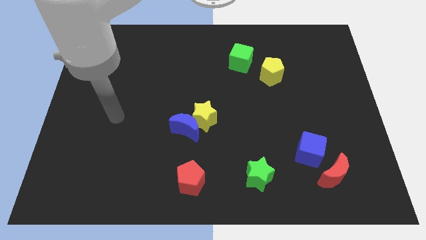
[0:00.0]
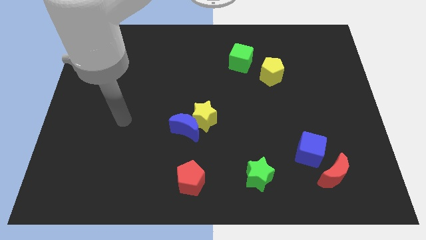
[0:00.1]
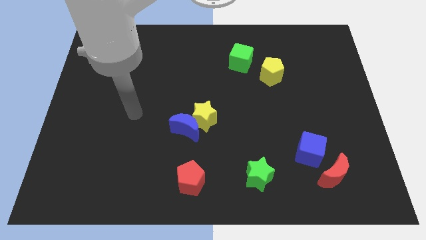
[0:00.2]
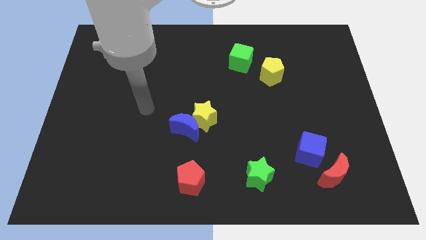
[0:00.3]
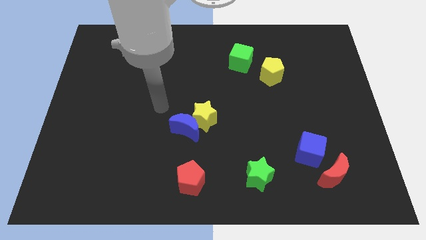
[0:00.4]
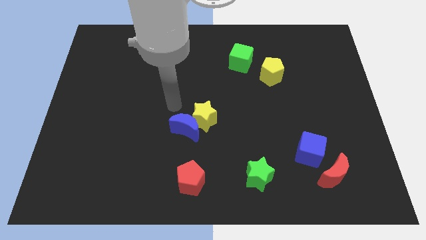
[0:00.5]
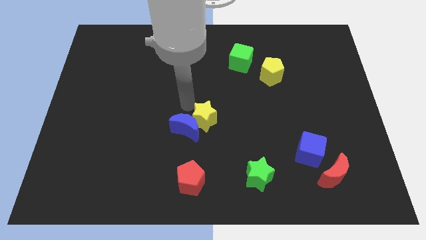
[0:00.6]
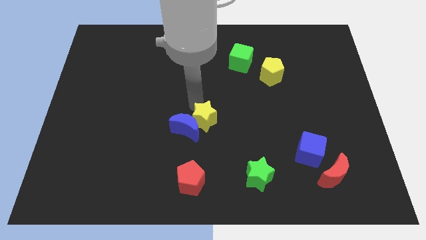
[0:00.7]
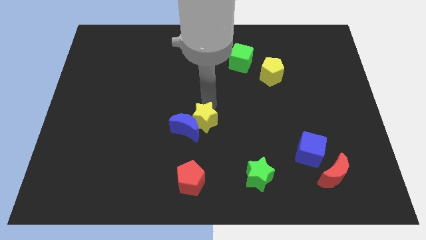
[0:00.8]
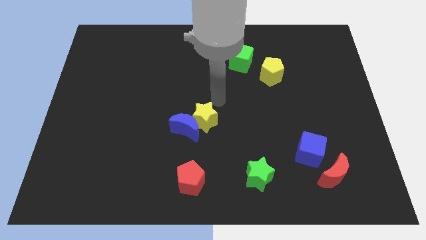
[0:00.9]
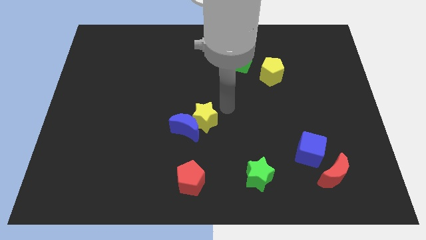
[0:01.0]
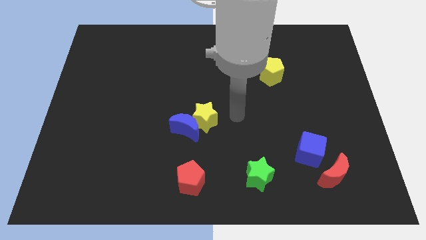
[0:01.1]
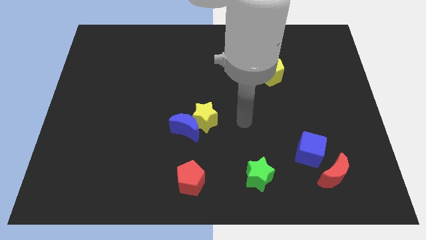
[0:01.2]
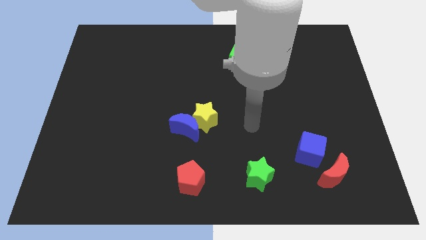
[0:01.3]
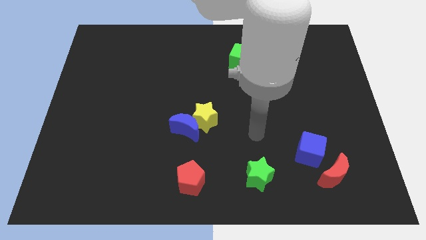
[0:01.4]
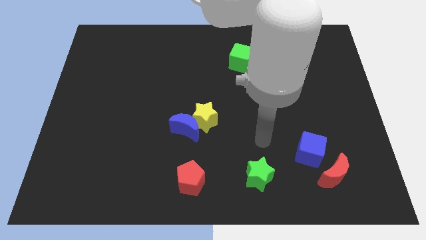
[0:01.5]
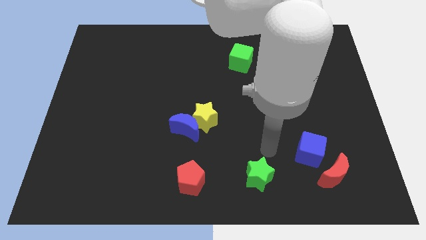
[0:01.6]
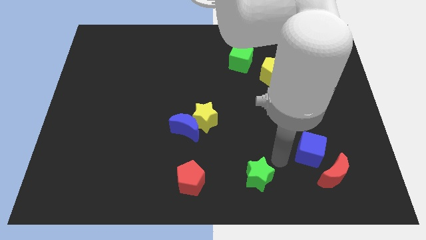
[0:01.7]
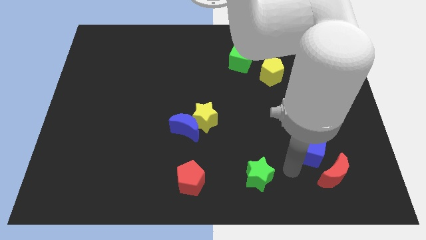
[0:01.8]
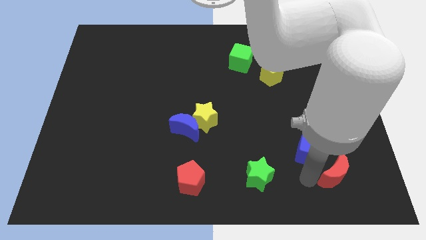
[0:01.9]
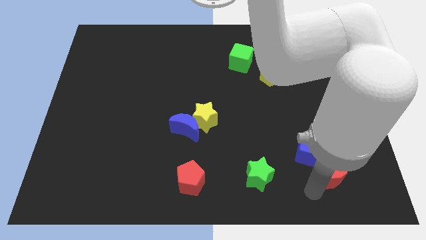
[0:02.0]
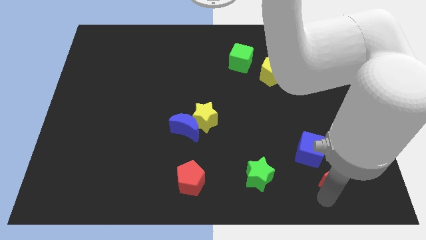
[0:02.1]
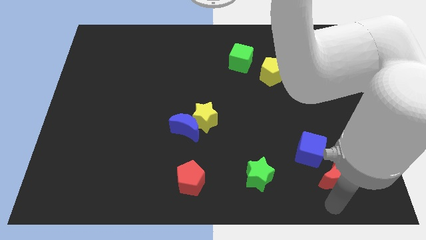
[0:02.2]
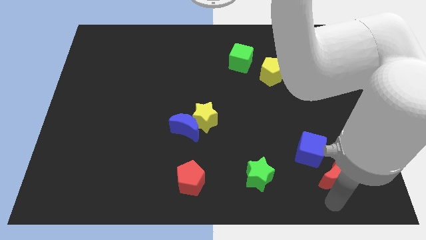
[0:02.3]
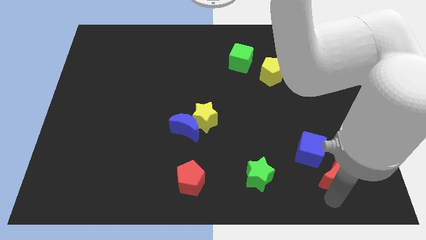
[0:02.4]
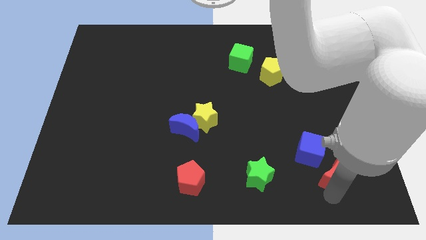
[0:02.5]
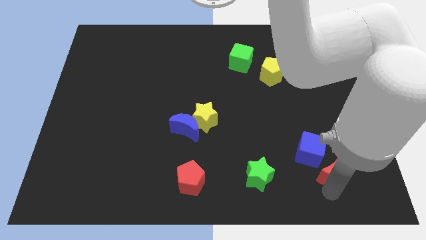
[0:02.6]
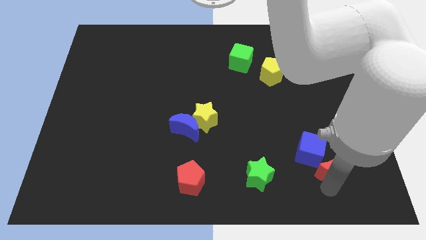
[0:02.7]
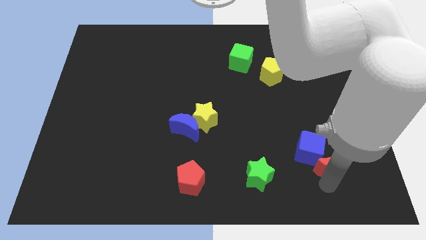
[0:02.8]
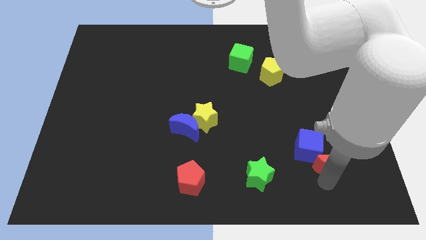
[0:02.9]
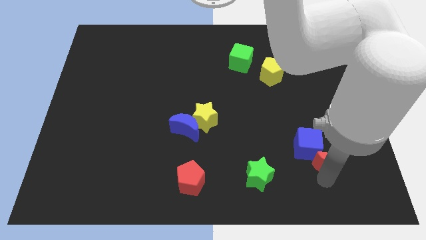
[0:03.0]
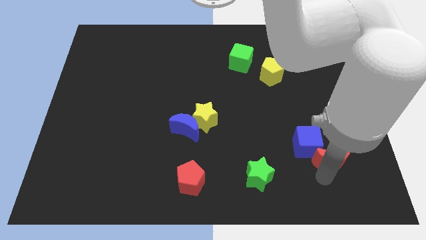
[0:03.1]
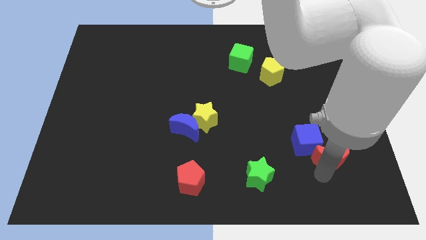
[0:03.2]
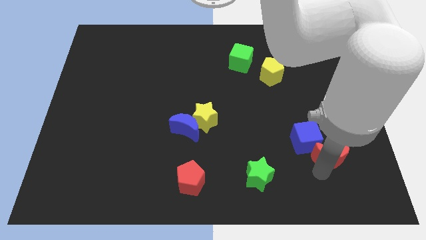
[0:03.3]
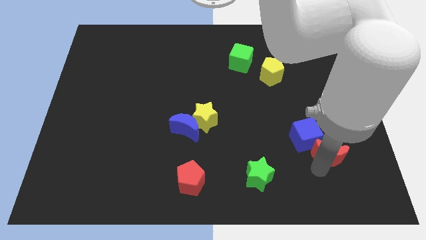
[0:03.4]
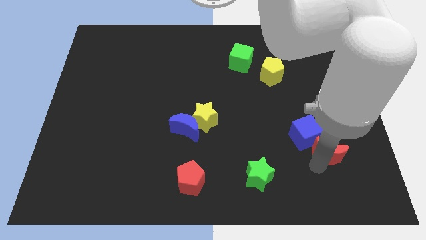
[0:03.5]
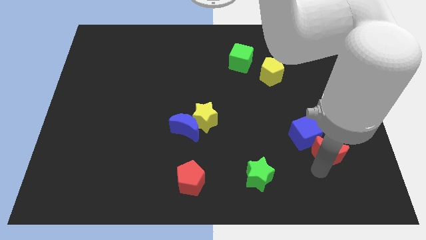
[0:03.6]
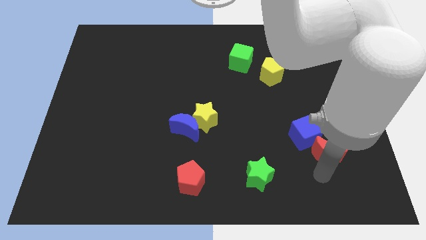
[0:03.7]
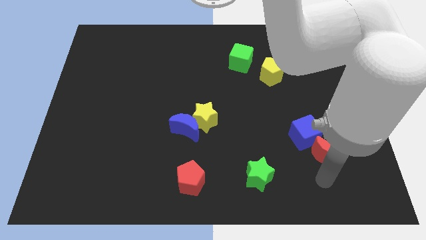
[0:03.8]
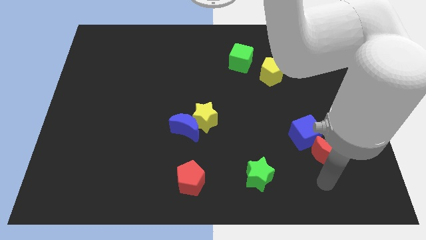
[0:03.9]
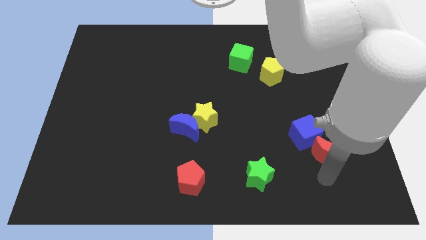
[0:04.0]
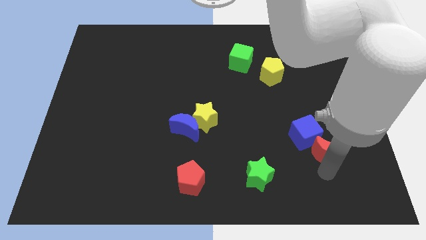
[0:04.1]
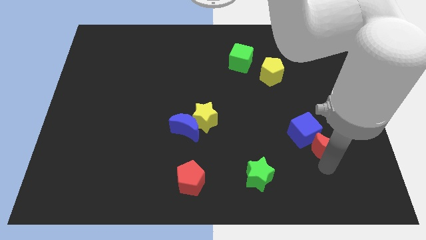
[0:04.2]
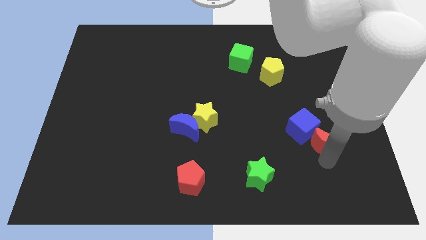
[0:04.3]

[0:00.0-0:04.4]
slightly slide the red moon upwards

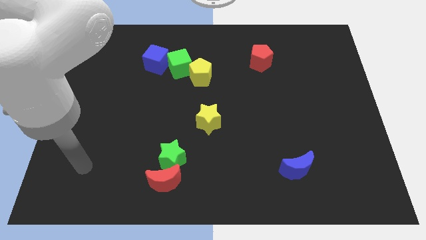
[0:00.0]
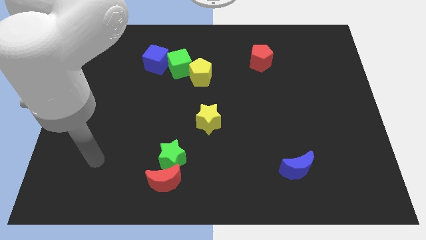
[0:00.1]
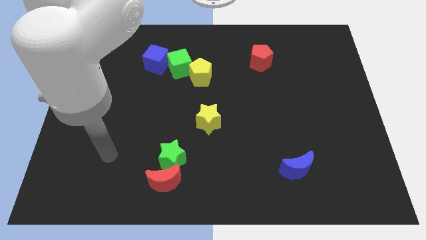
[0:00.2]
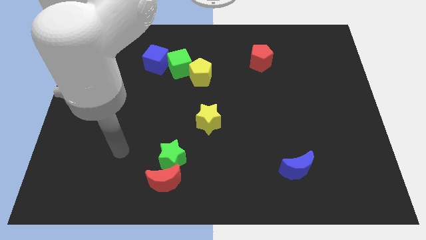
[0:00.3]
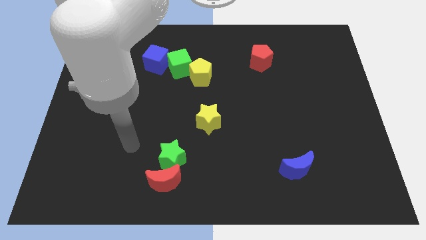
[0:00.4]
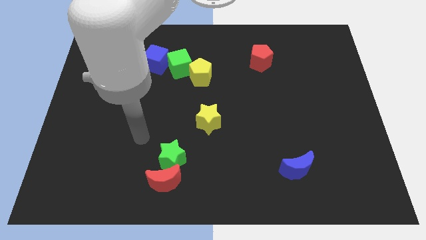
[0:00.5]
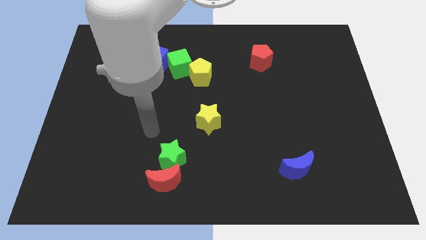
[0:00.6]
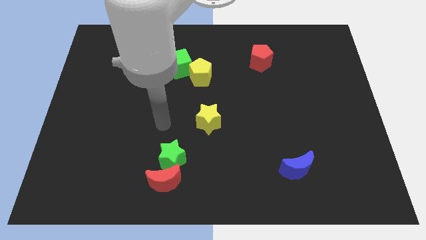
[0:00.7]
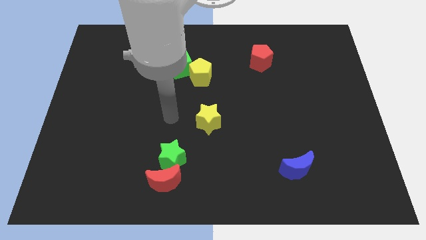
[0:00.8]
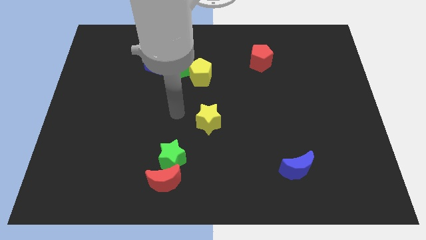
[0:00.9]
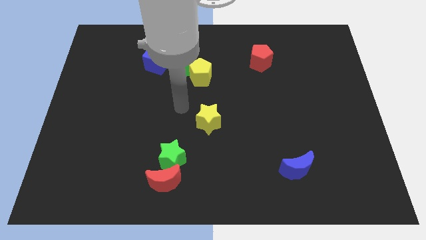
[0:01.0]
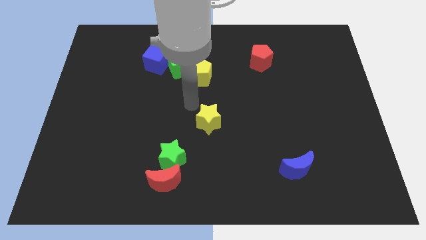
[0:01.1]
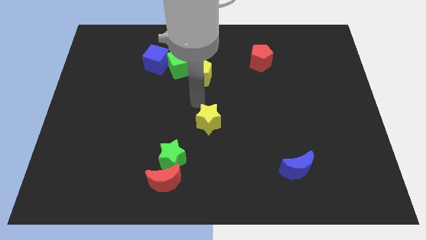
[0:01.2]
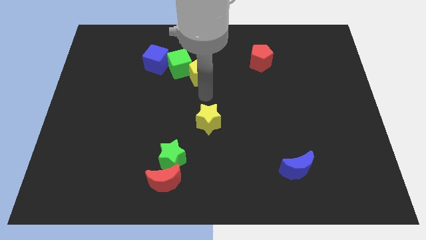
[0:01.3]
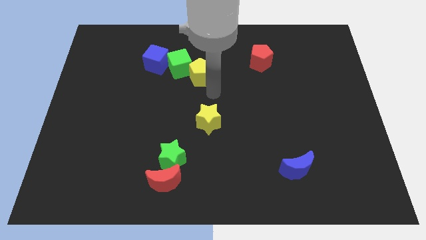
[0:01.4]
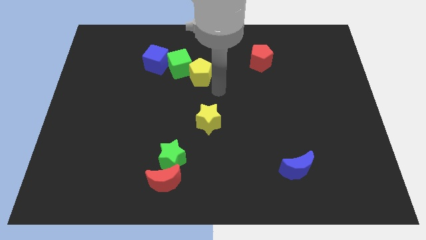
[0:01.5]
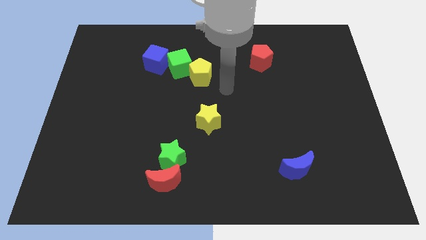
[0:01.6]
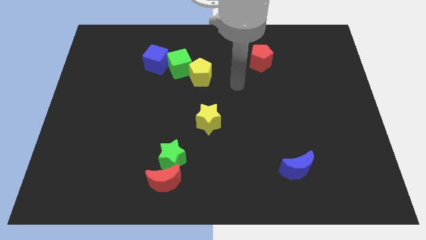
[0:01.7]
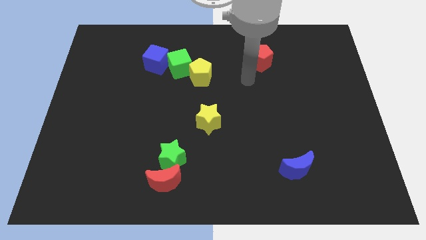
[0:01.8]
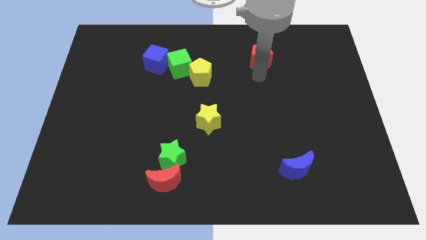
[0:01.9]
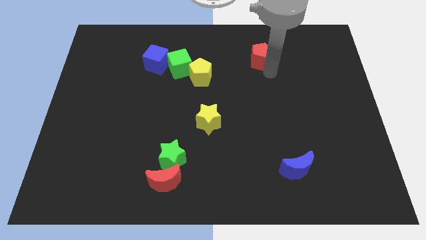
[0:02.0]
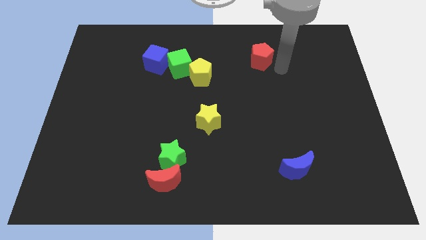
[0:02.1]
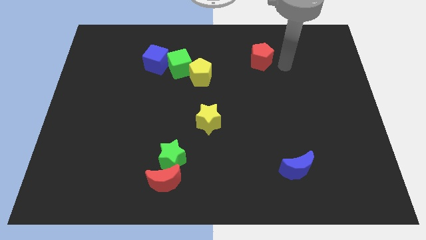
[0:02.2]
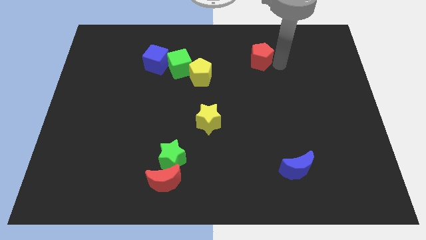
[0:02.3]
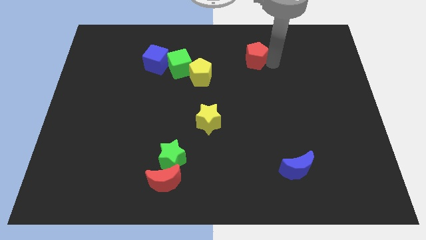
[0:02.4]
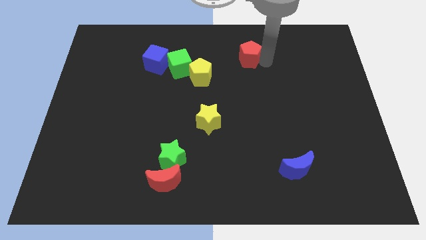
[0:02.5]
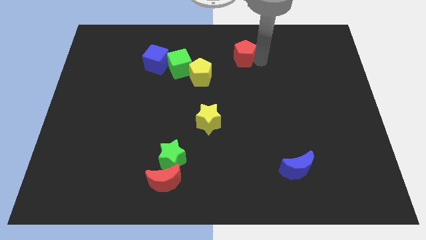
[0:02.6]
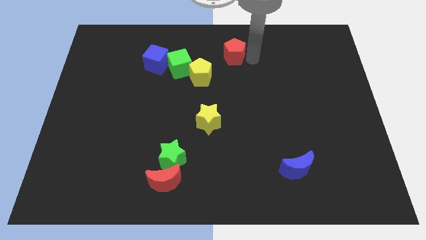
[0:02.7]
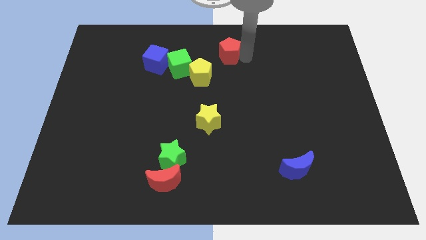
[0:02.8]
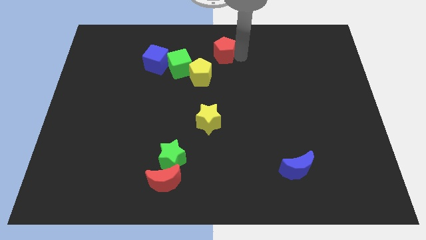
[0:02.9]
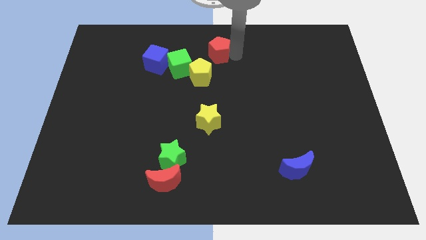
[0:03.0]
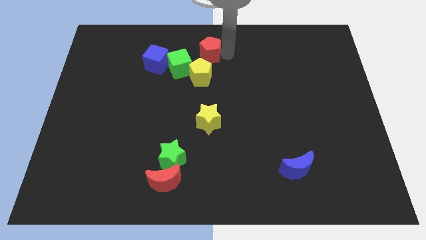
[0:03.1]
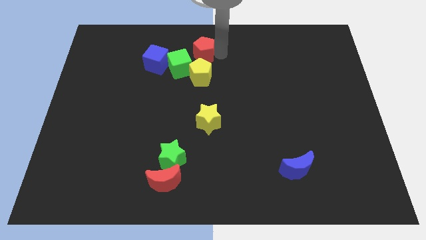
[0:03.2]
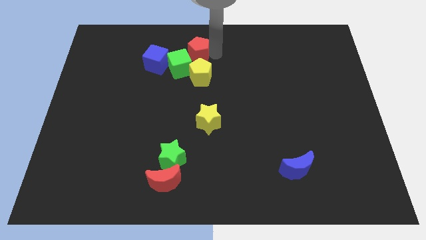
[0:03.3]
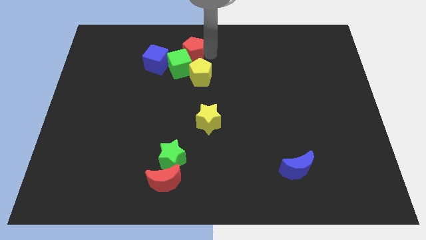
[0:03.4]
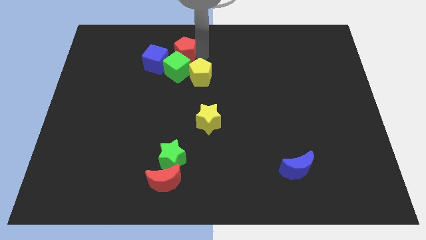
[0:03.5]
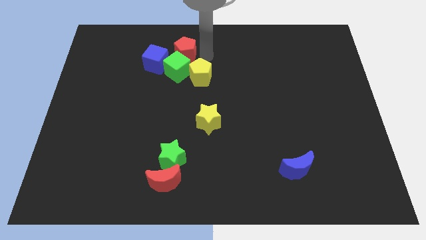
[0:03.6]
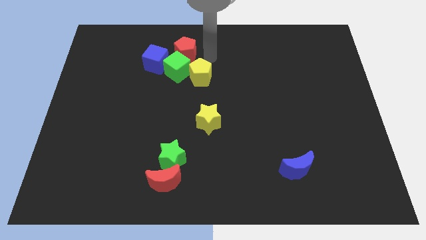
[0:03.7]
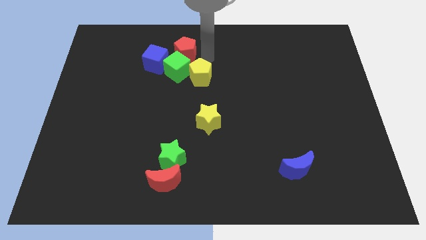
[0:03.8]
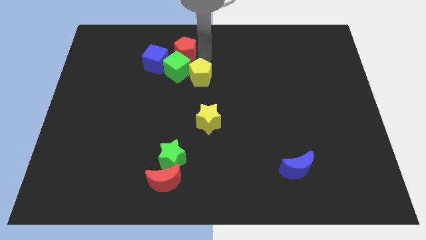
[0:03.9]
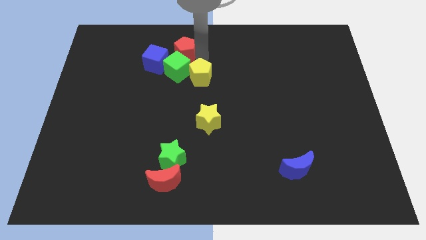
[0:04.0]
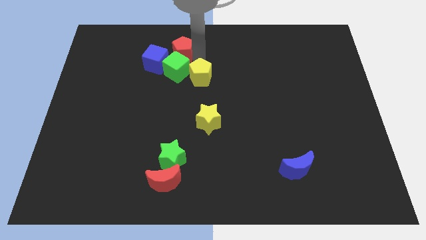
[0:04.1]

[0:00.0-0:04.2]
slide the red pentagon left
